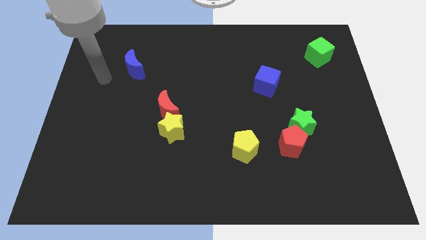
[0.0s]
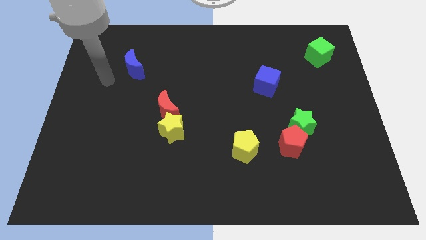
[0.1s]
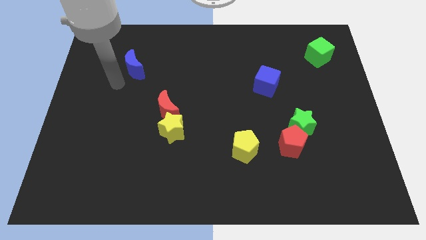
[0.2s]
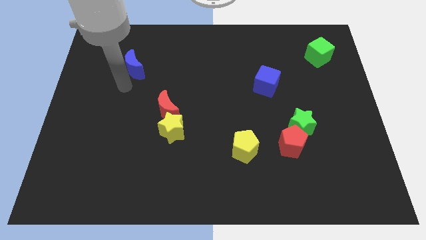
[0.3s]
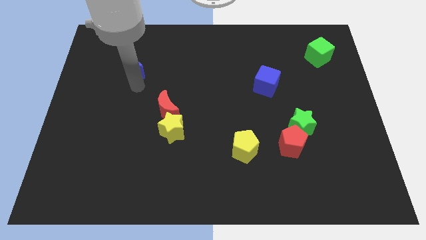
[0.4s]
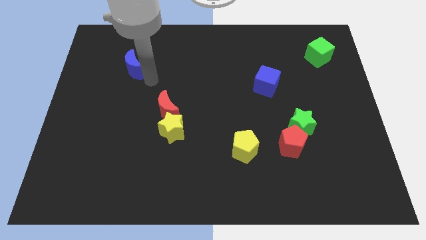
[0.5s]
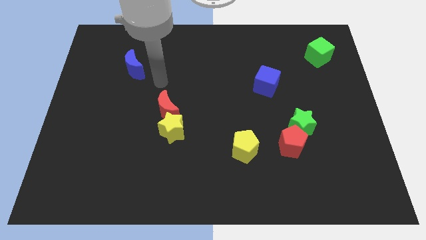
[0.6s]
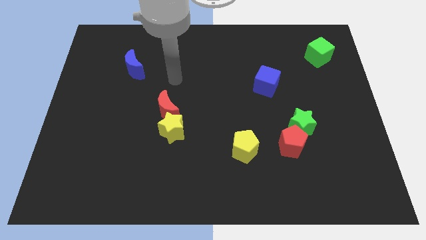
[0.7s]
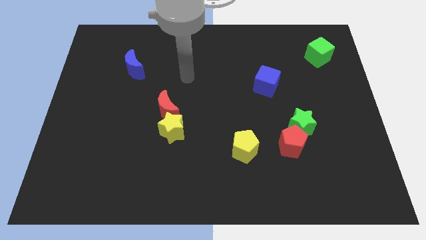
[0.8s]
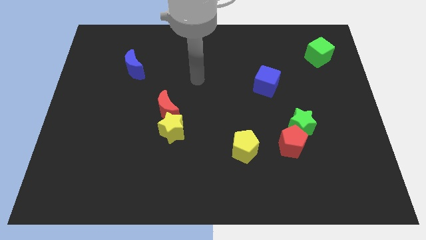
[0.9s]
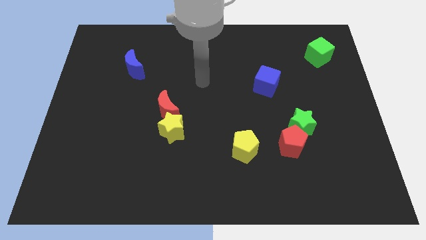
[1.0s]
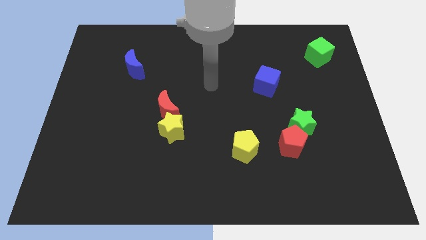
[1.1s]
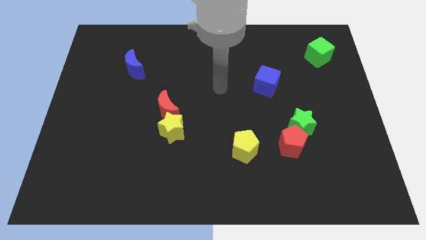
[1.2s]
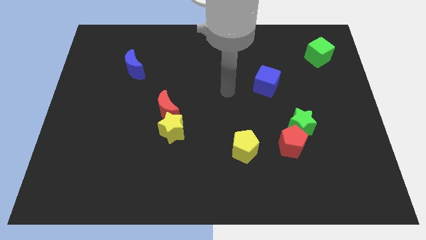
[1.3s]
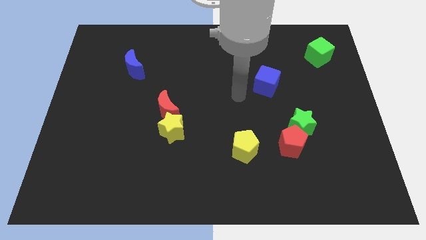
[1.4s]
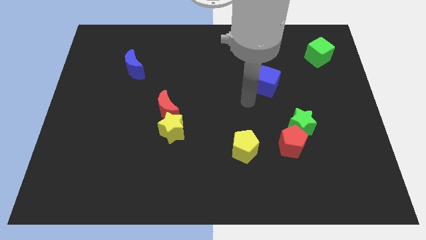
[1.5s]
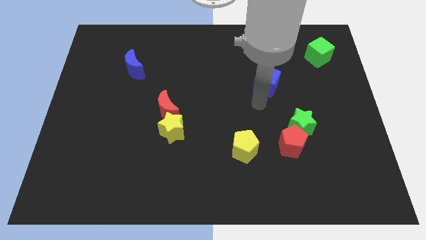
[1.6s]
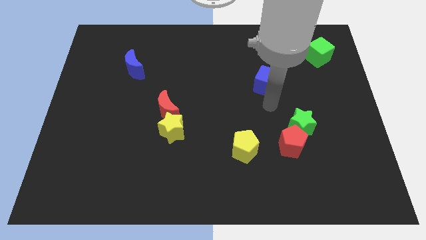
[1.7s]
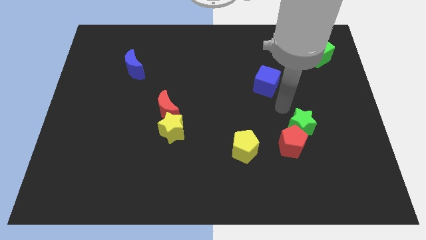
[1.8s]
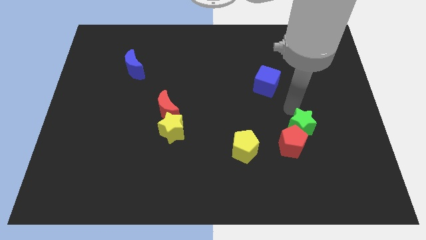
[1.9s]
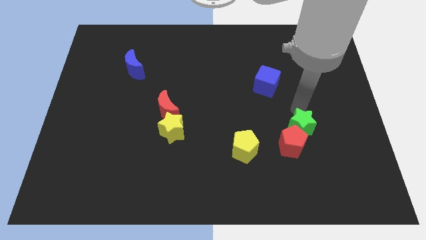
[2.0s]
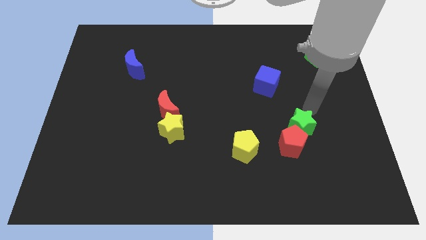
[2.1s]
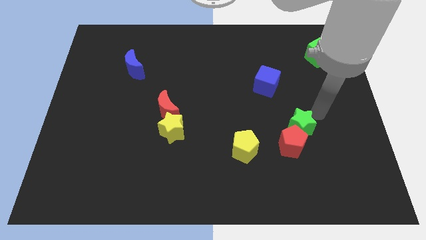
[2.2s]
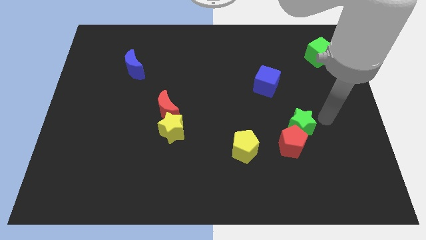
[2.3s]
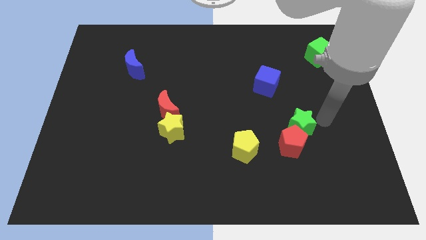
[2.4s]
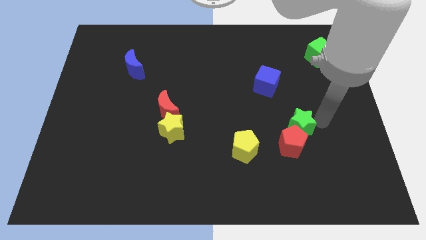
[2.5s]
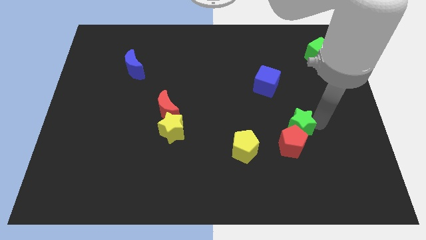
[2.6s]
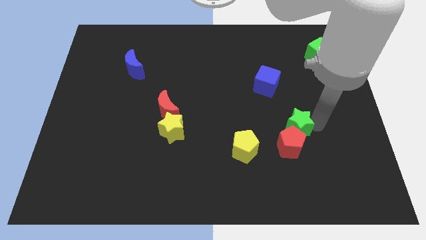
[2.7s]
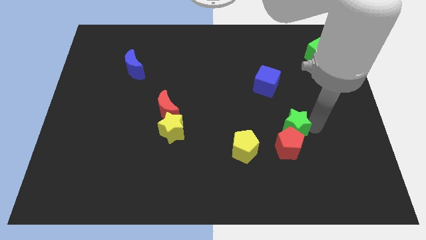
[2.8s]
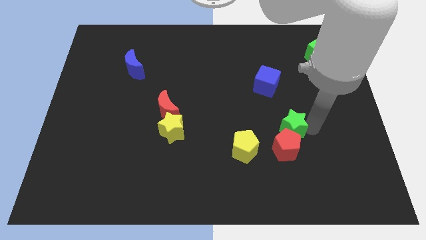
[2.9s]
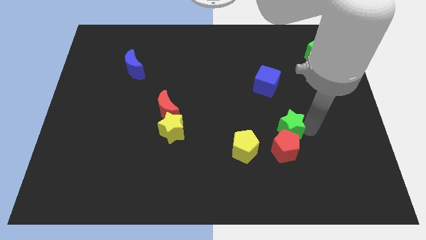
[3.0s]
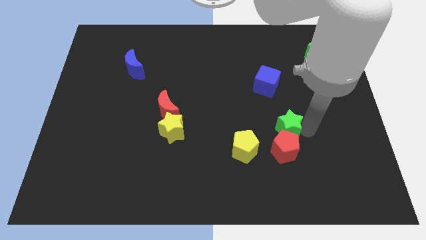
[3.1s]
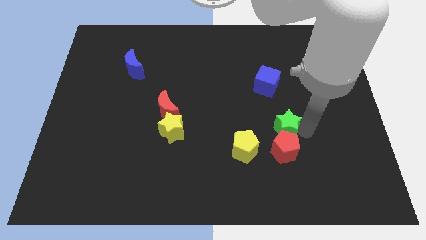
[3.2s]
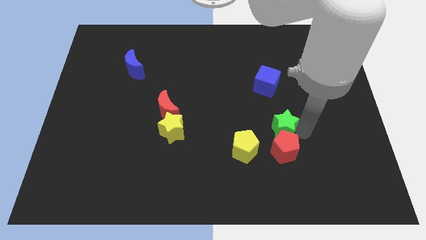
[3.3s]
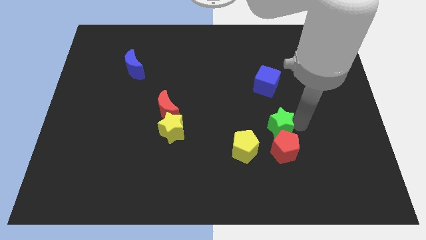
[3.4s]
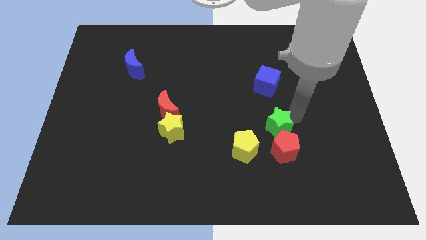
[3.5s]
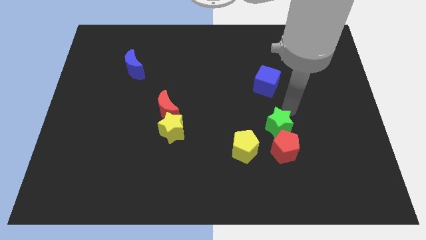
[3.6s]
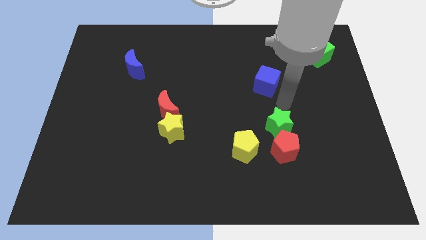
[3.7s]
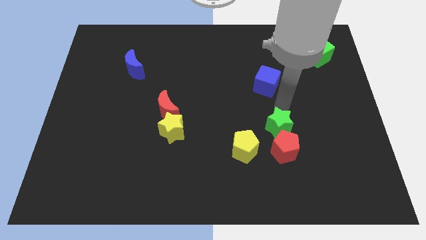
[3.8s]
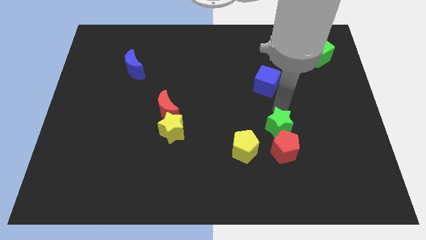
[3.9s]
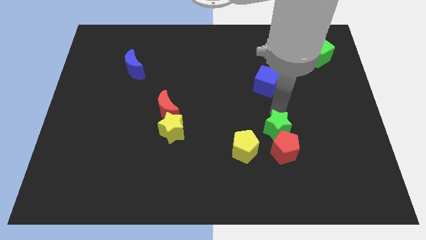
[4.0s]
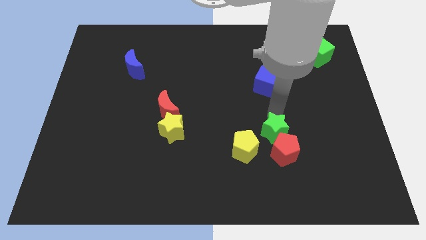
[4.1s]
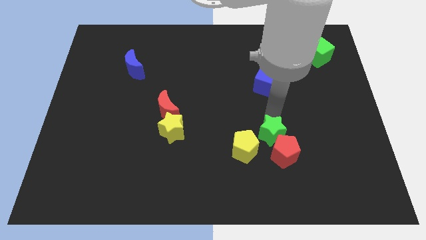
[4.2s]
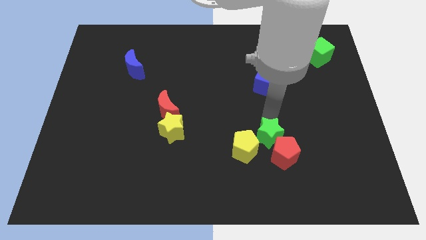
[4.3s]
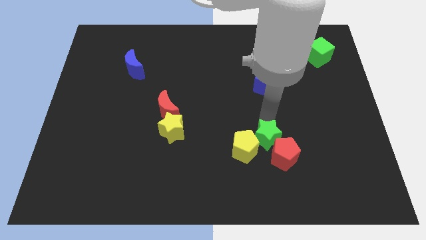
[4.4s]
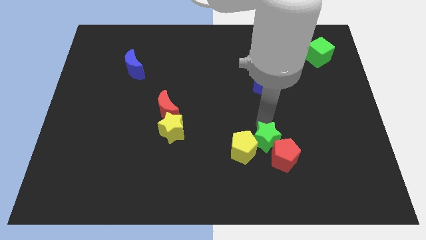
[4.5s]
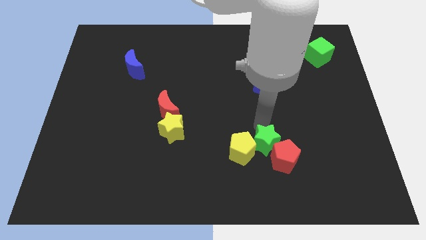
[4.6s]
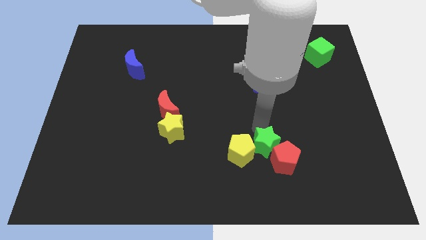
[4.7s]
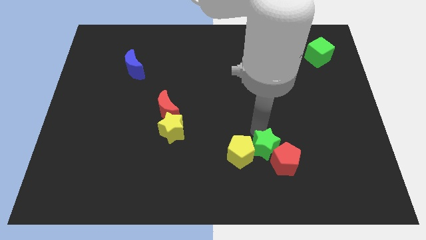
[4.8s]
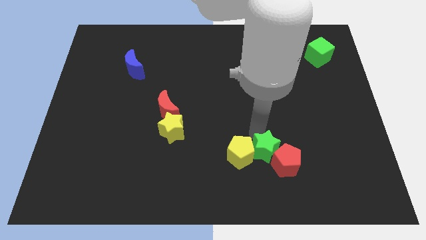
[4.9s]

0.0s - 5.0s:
move the green star to the bottom right side of the yellow pentagon

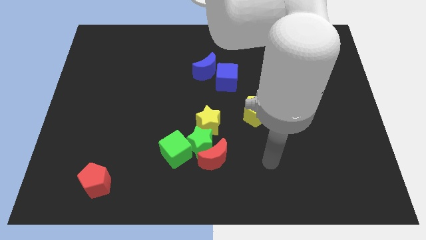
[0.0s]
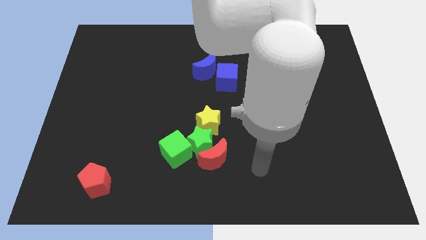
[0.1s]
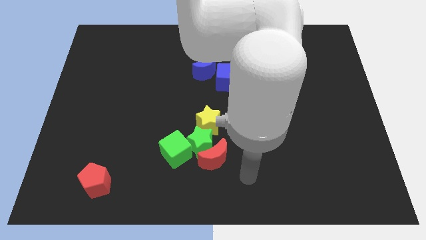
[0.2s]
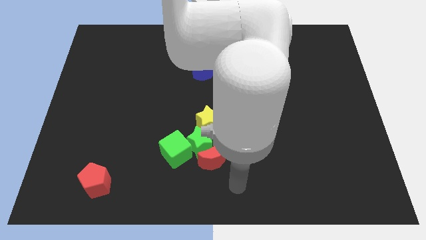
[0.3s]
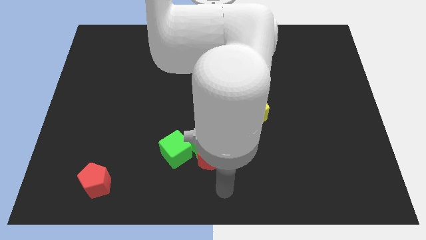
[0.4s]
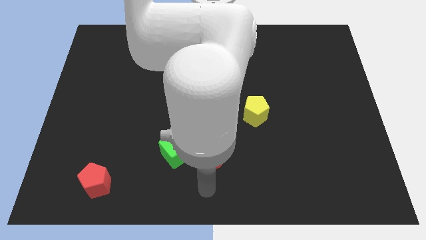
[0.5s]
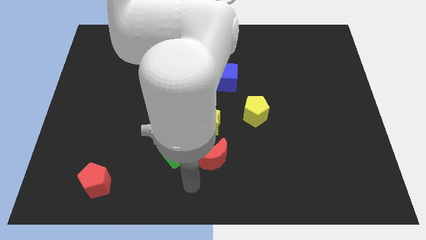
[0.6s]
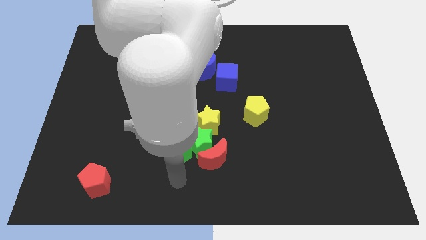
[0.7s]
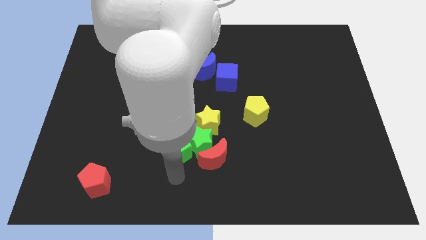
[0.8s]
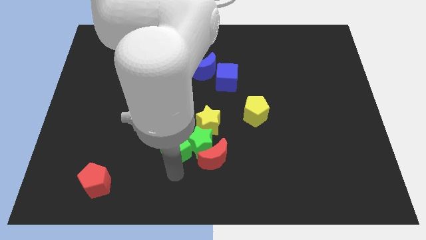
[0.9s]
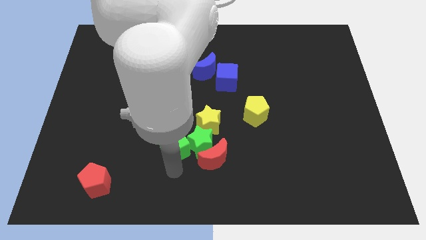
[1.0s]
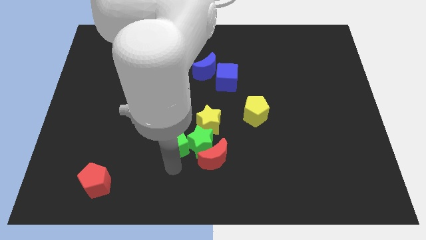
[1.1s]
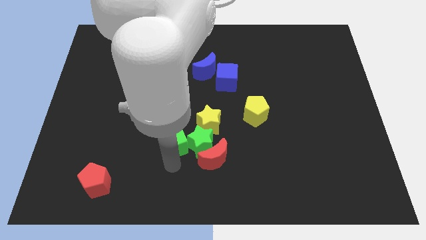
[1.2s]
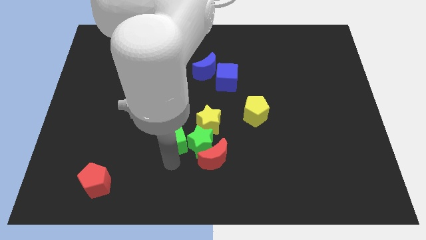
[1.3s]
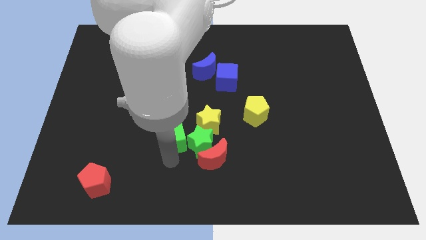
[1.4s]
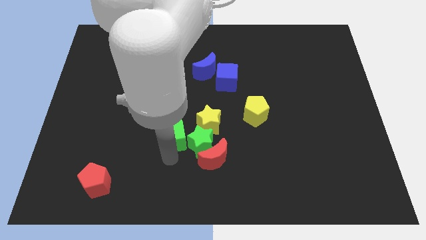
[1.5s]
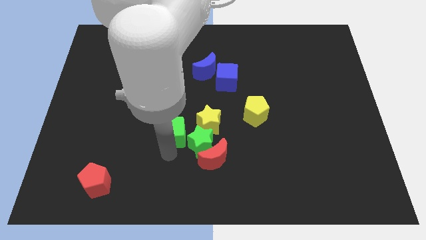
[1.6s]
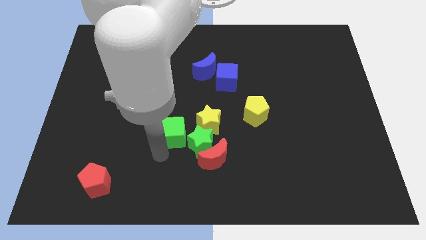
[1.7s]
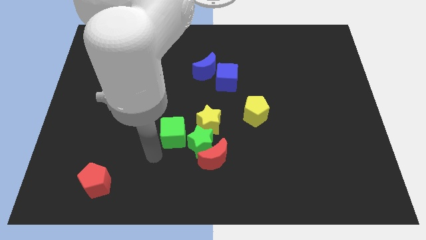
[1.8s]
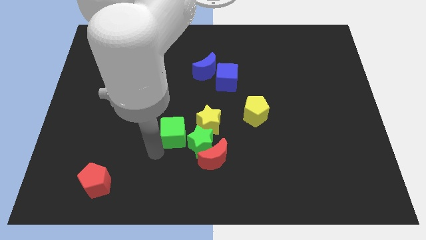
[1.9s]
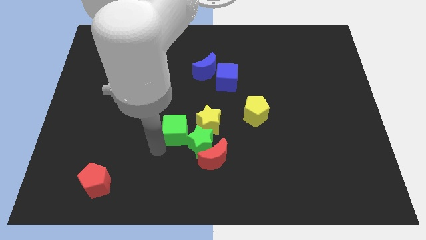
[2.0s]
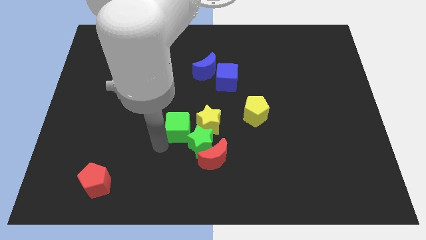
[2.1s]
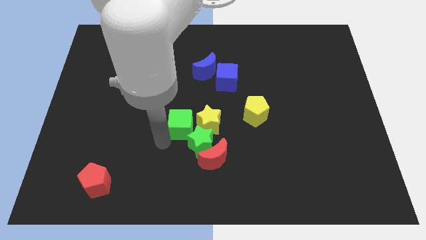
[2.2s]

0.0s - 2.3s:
push the green cube to the top side of the green star
